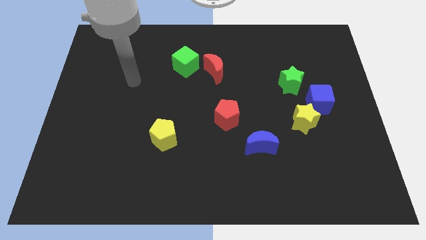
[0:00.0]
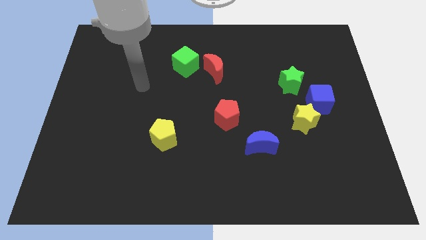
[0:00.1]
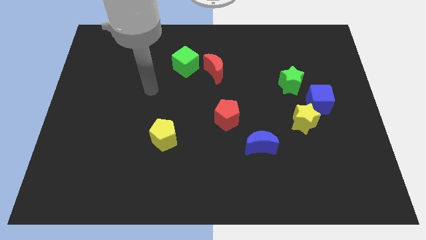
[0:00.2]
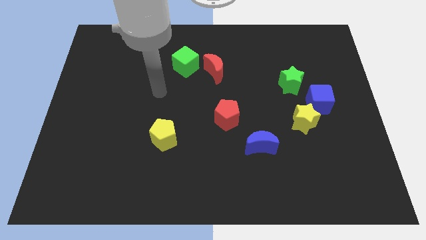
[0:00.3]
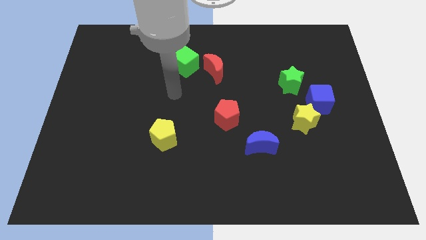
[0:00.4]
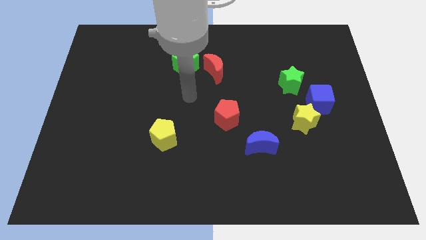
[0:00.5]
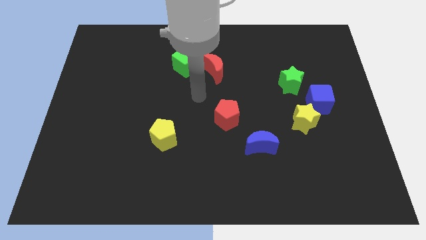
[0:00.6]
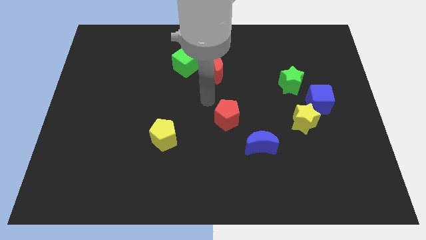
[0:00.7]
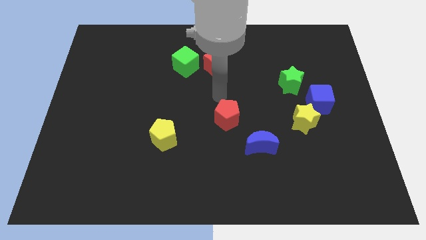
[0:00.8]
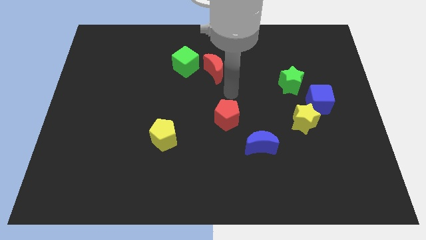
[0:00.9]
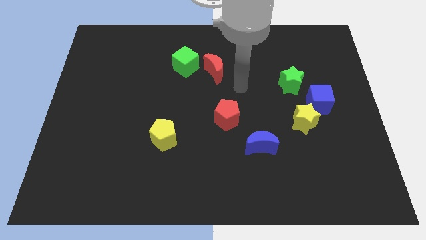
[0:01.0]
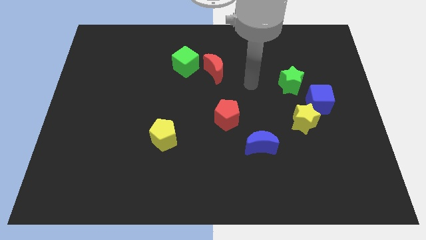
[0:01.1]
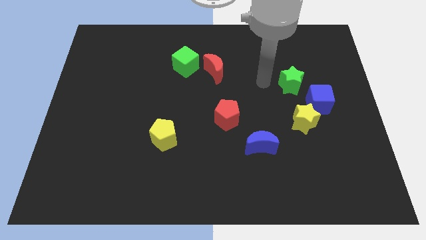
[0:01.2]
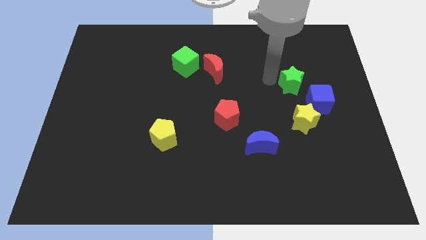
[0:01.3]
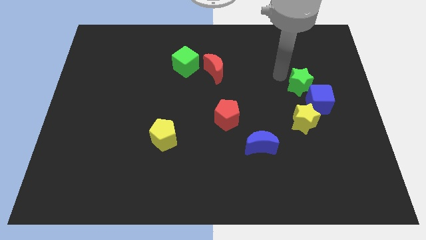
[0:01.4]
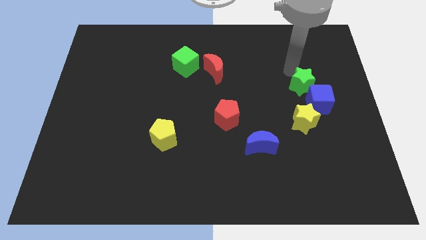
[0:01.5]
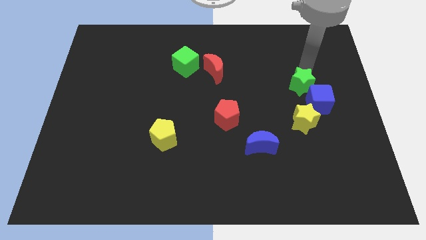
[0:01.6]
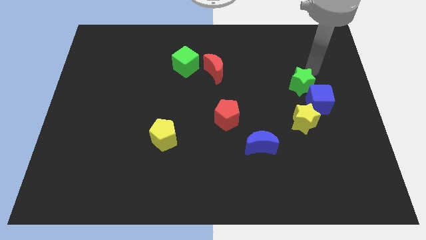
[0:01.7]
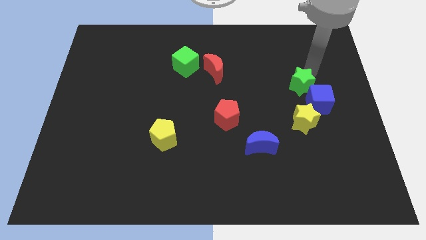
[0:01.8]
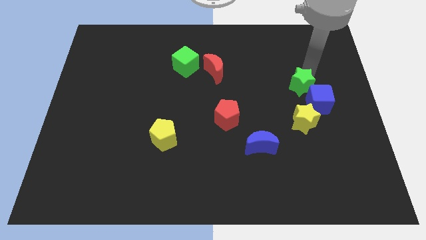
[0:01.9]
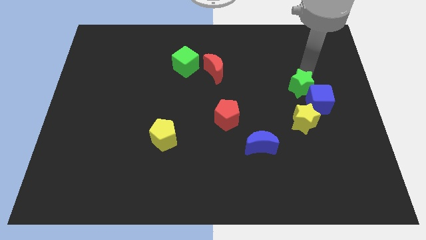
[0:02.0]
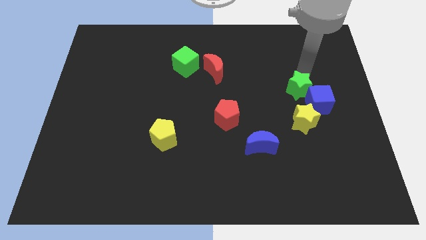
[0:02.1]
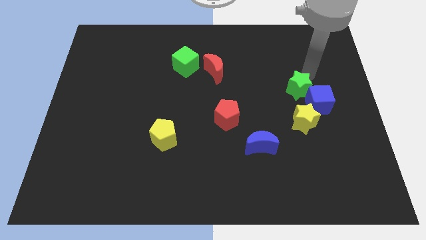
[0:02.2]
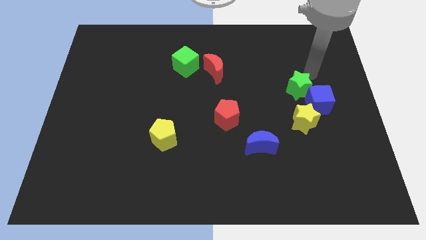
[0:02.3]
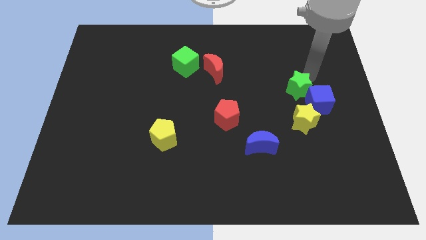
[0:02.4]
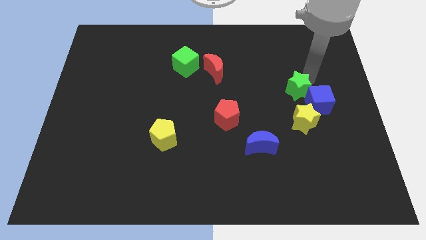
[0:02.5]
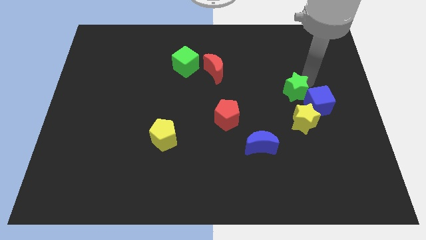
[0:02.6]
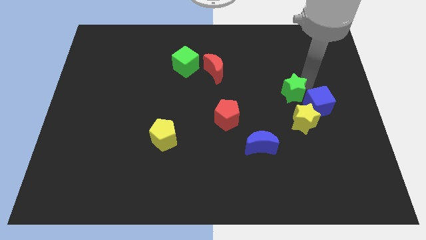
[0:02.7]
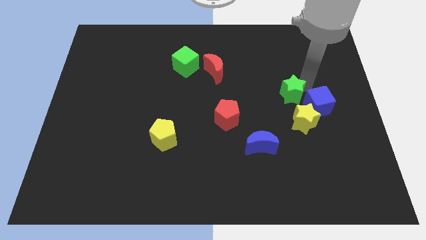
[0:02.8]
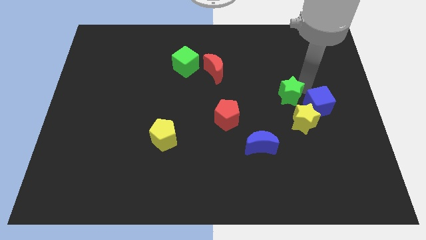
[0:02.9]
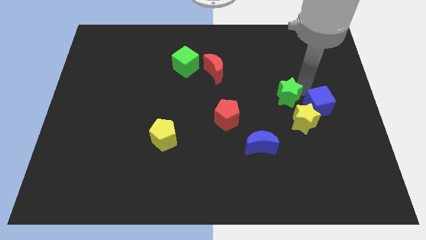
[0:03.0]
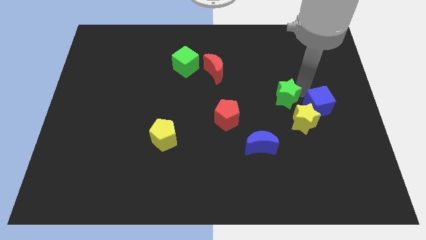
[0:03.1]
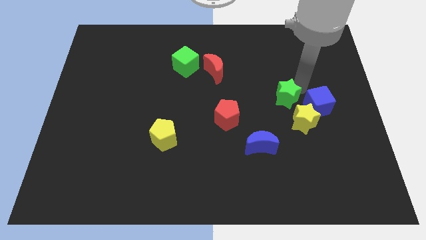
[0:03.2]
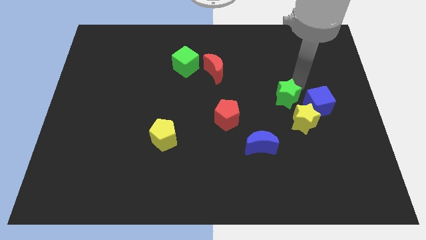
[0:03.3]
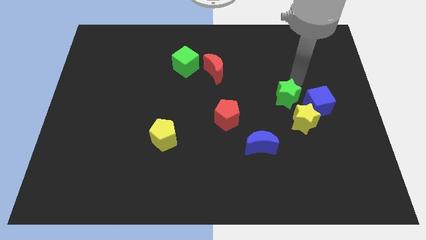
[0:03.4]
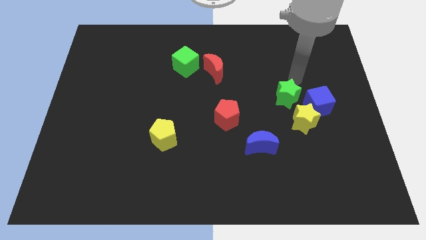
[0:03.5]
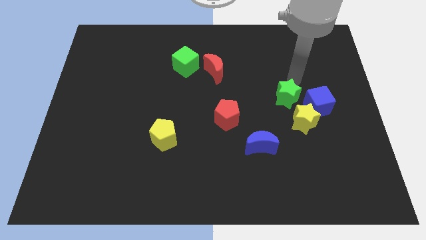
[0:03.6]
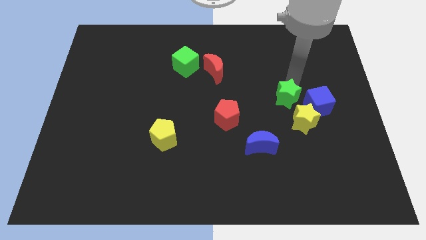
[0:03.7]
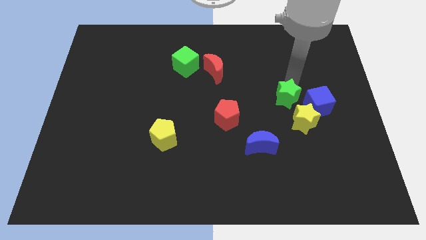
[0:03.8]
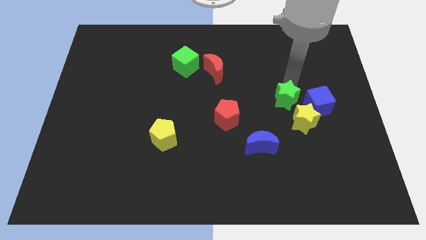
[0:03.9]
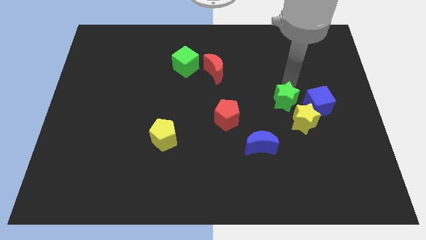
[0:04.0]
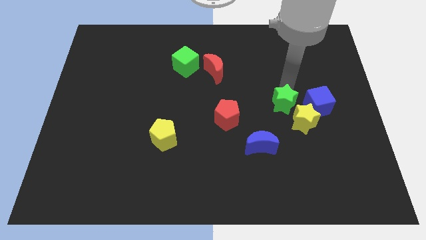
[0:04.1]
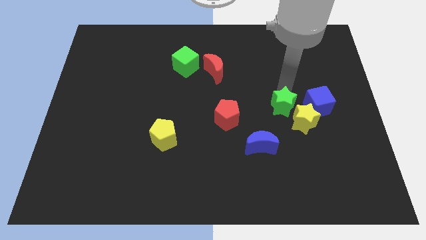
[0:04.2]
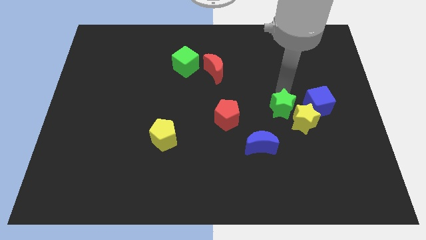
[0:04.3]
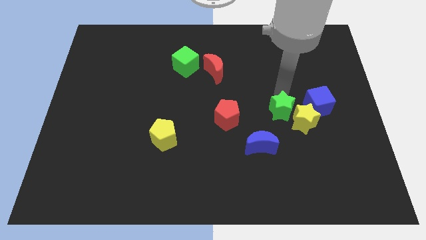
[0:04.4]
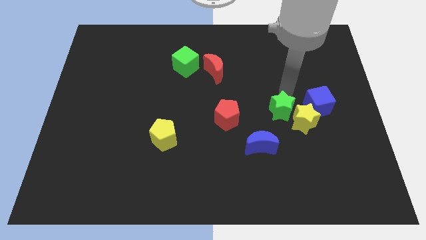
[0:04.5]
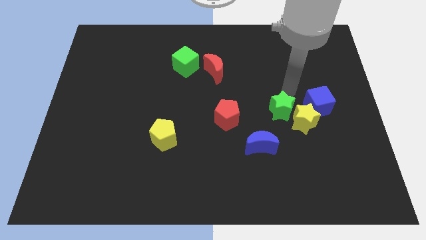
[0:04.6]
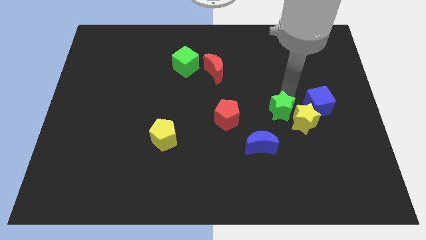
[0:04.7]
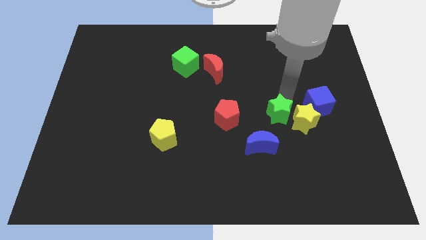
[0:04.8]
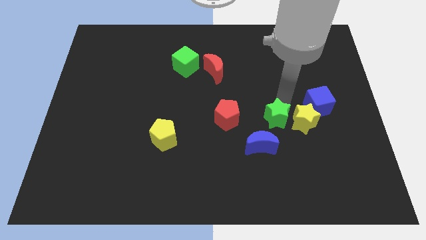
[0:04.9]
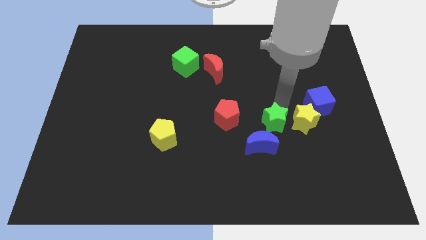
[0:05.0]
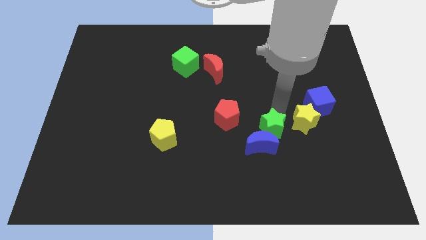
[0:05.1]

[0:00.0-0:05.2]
slide the green star next to the blue moon

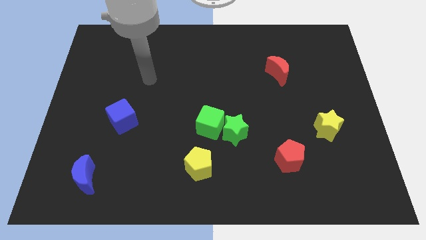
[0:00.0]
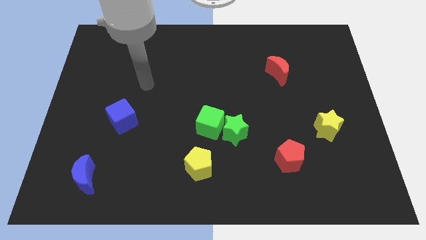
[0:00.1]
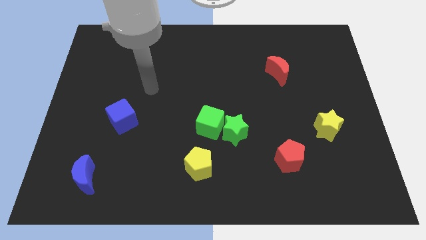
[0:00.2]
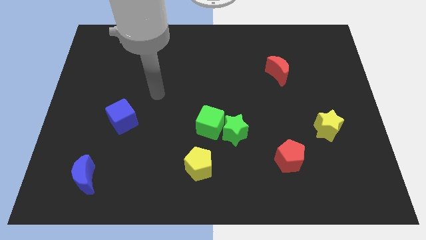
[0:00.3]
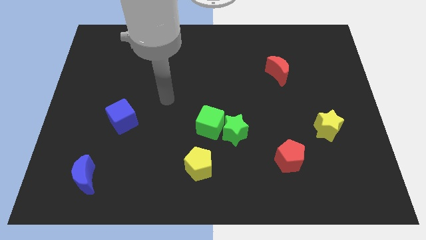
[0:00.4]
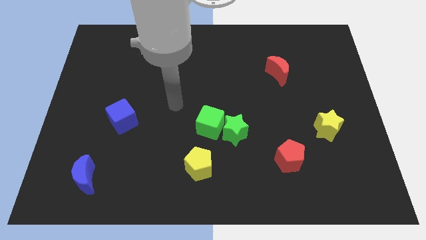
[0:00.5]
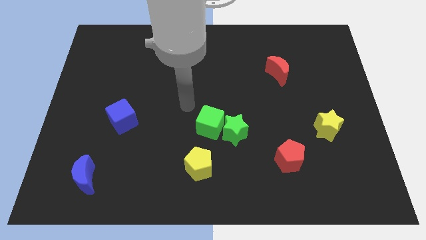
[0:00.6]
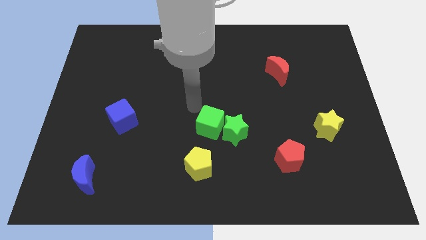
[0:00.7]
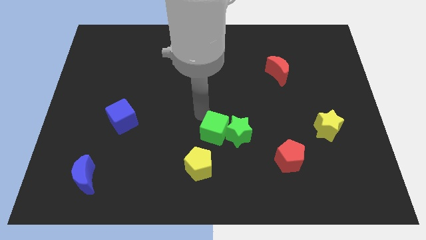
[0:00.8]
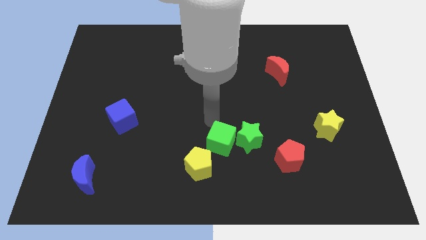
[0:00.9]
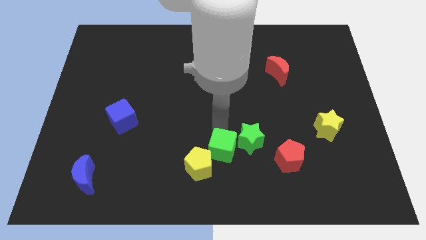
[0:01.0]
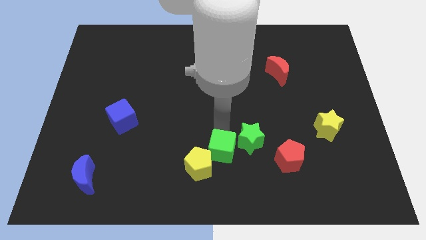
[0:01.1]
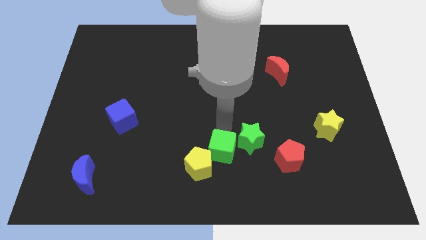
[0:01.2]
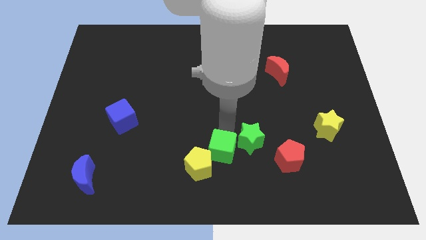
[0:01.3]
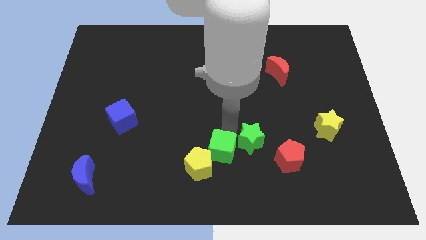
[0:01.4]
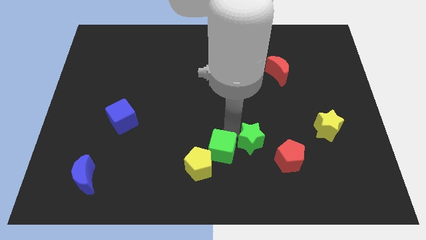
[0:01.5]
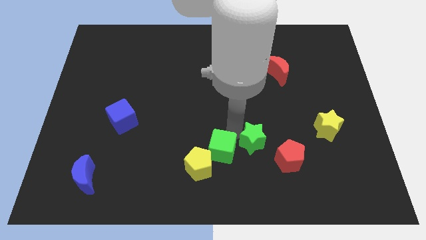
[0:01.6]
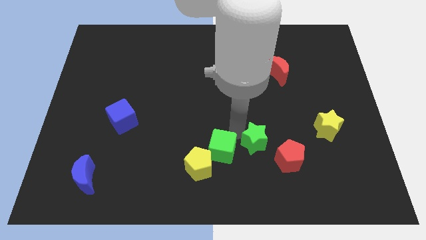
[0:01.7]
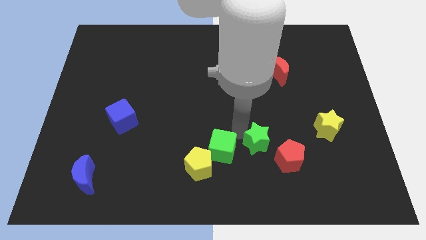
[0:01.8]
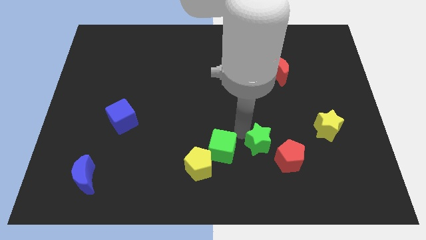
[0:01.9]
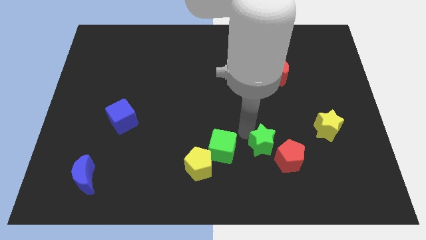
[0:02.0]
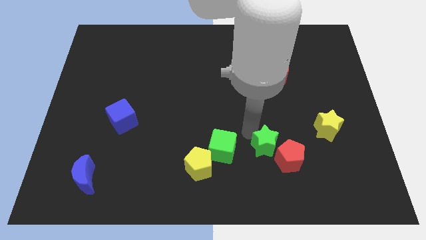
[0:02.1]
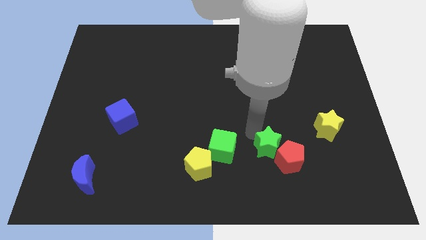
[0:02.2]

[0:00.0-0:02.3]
move the green star close to the red pentagon
